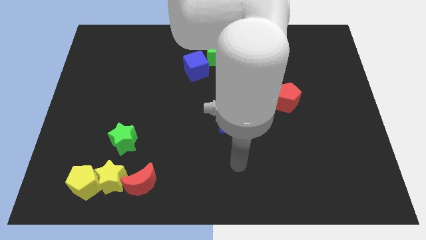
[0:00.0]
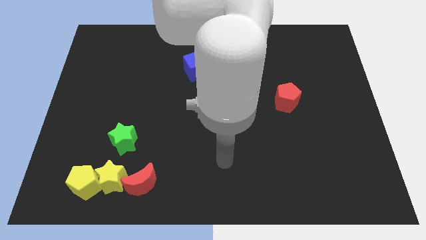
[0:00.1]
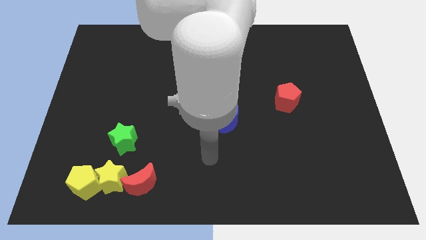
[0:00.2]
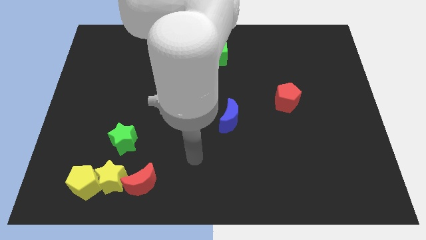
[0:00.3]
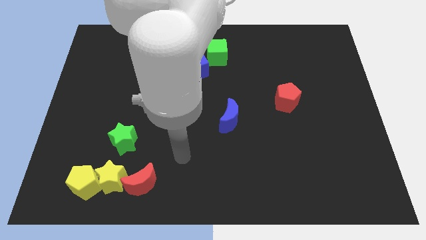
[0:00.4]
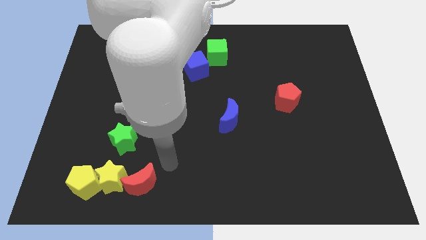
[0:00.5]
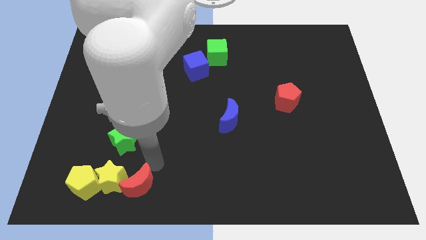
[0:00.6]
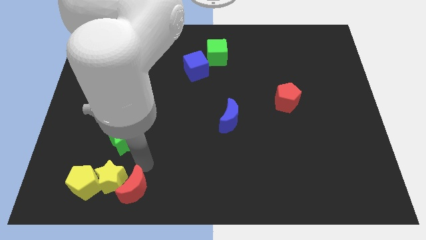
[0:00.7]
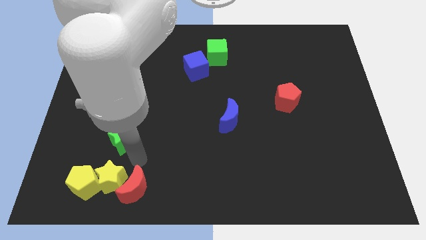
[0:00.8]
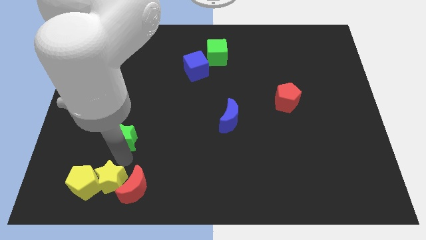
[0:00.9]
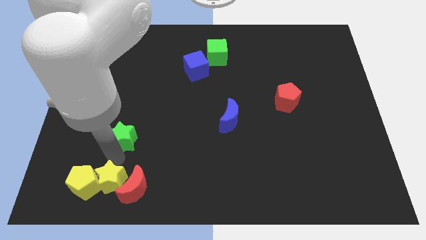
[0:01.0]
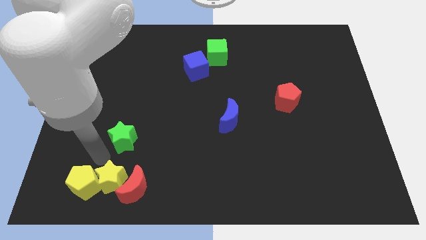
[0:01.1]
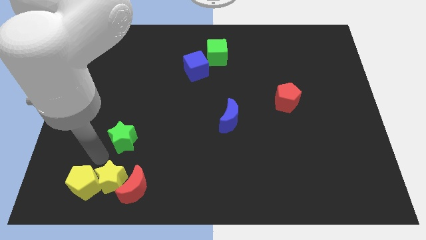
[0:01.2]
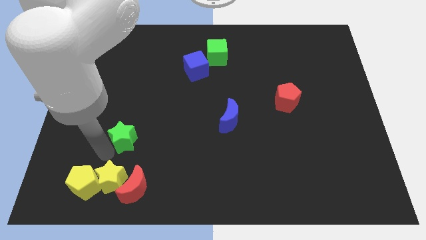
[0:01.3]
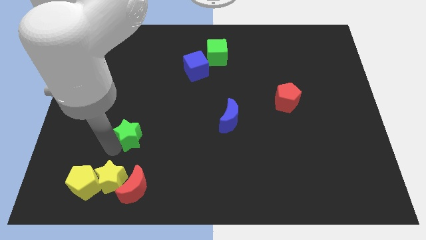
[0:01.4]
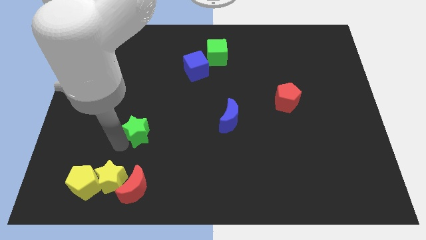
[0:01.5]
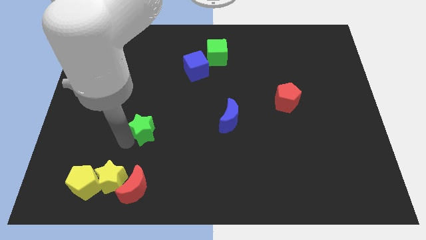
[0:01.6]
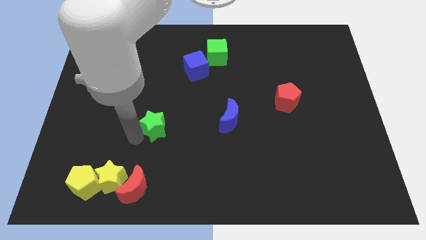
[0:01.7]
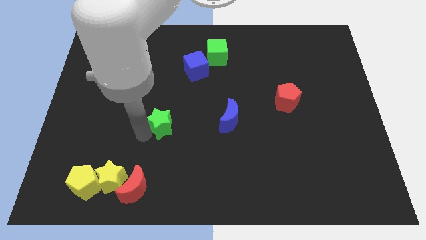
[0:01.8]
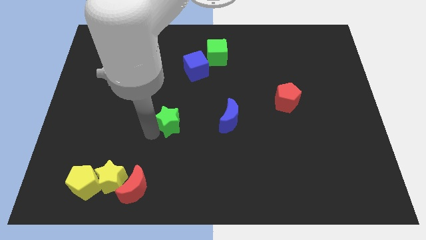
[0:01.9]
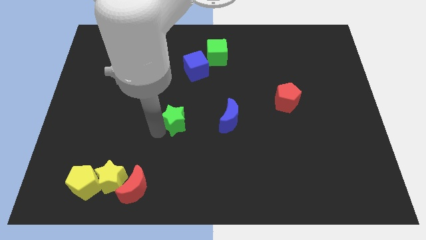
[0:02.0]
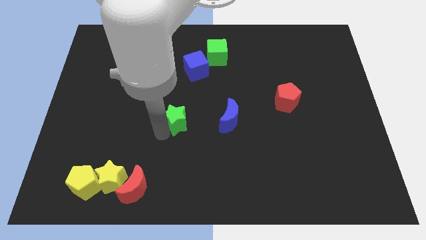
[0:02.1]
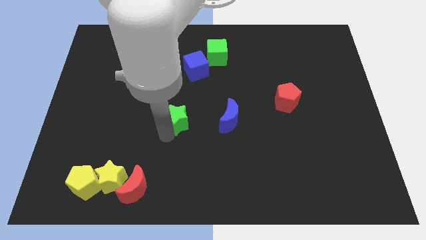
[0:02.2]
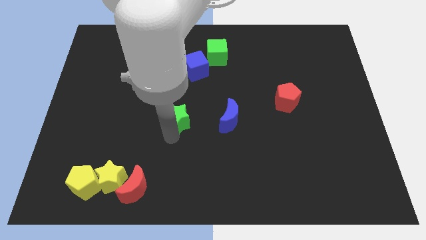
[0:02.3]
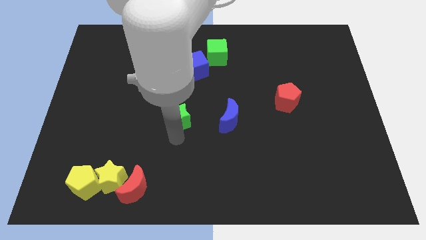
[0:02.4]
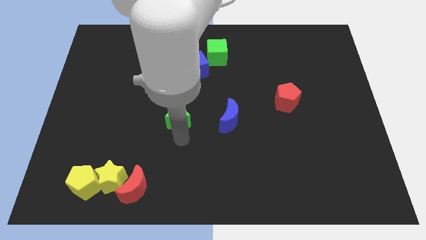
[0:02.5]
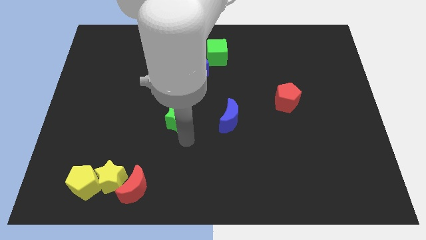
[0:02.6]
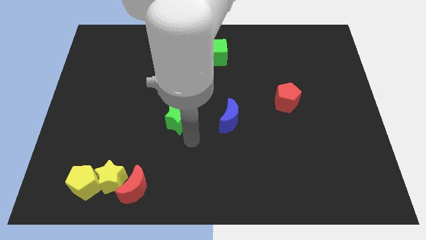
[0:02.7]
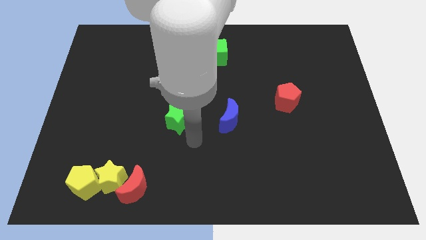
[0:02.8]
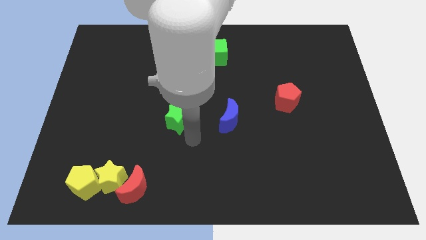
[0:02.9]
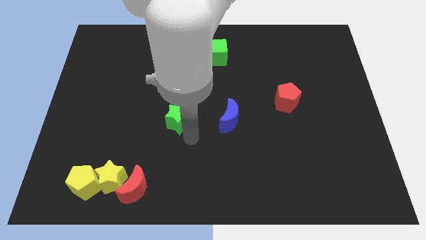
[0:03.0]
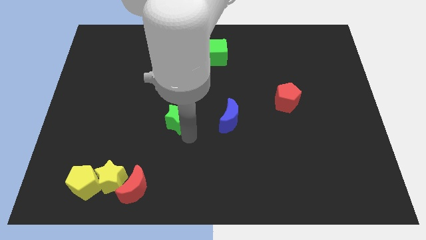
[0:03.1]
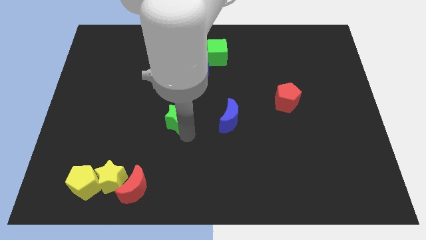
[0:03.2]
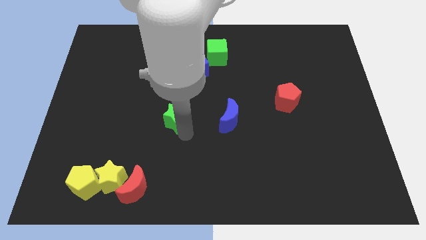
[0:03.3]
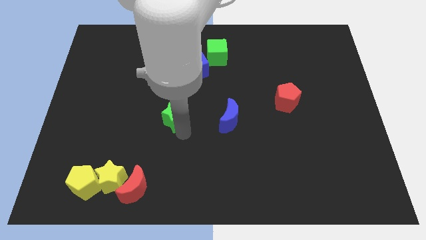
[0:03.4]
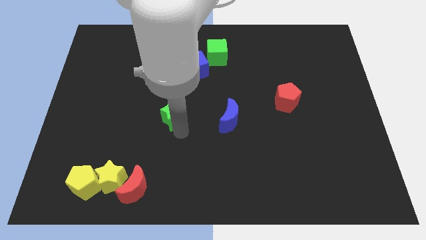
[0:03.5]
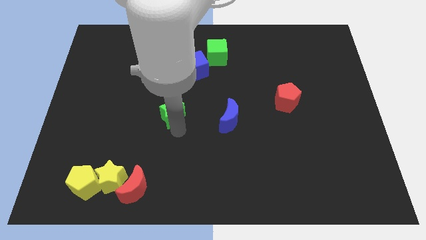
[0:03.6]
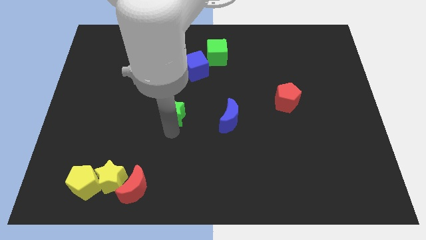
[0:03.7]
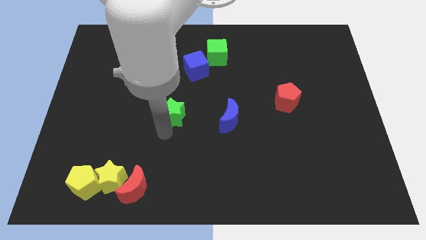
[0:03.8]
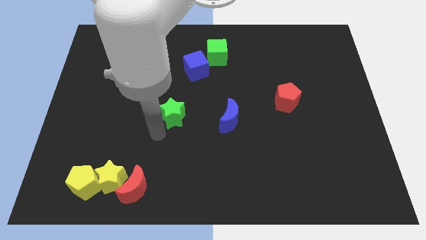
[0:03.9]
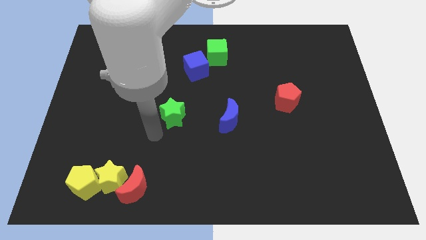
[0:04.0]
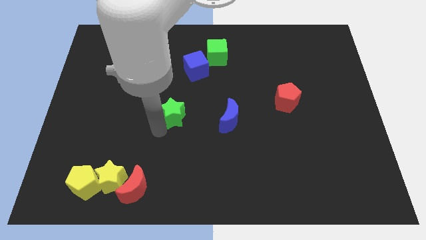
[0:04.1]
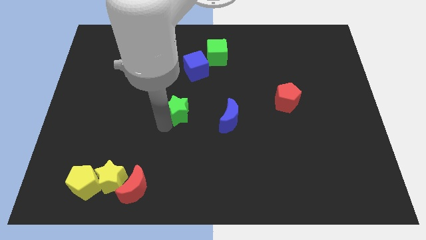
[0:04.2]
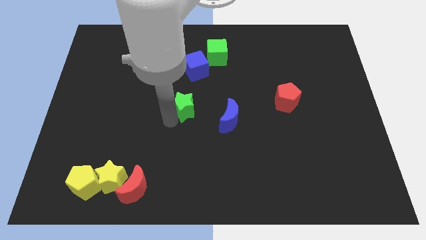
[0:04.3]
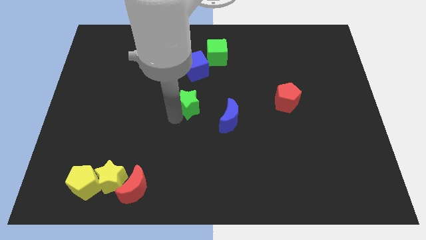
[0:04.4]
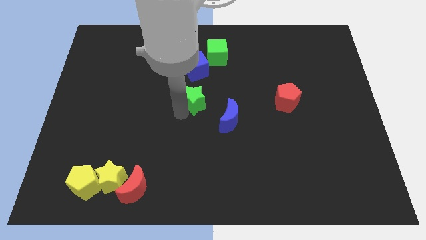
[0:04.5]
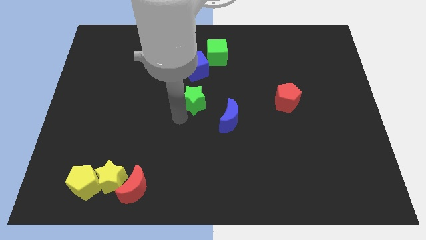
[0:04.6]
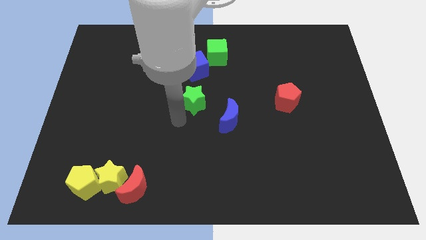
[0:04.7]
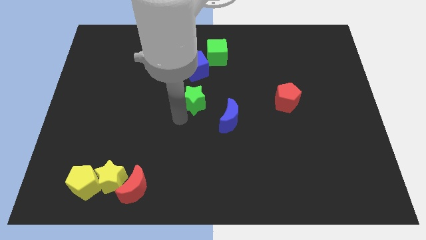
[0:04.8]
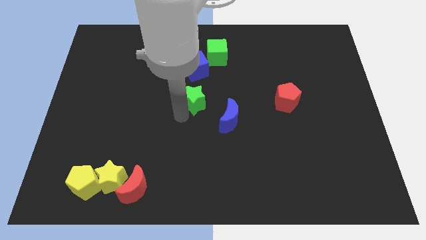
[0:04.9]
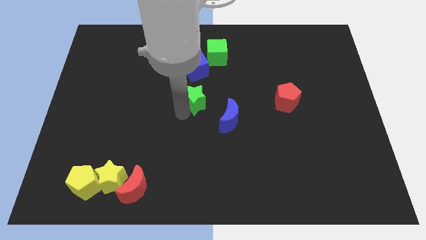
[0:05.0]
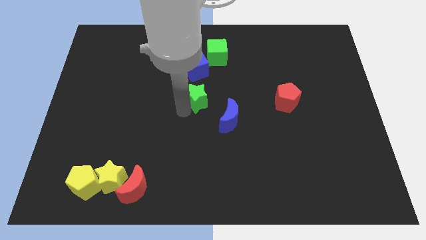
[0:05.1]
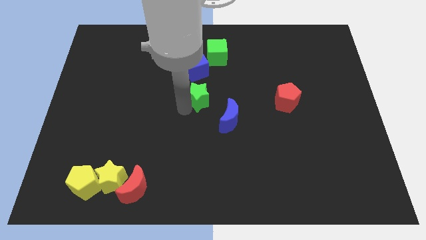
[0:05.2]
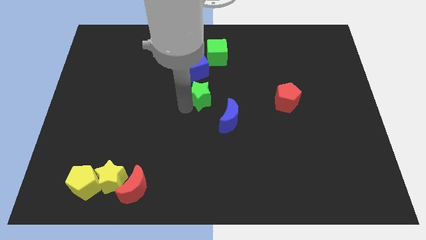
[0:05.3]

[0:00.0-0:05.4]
slide the green star upwards and then right

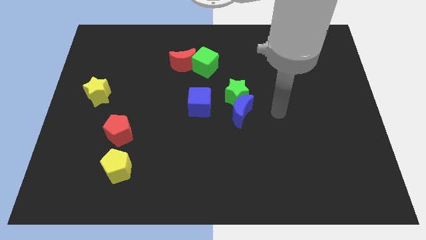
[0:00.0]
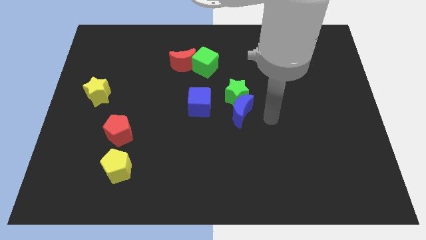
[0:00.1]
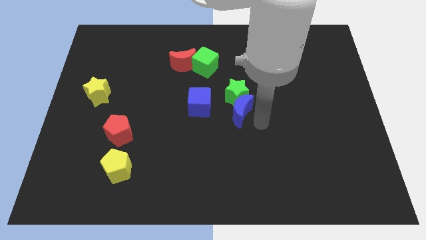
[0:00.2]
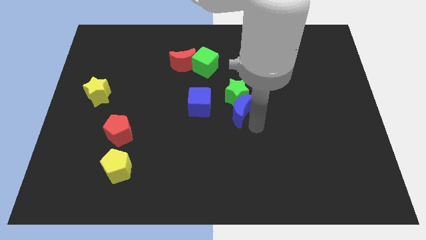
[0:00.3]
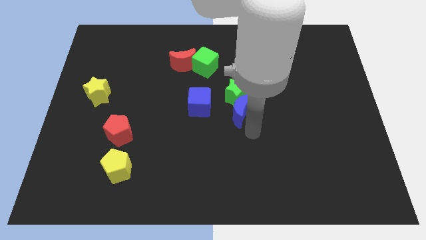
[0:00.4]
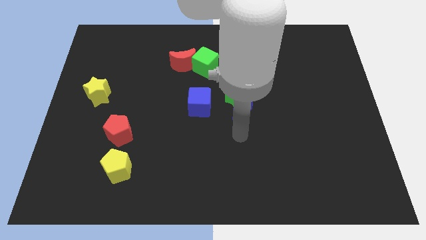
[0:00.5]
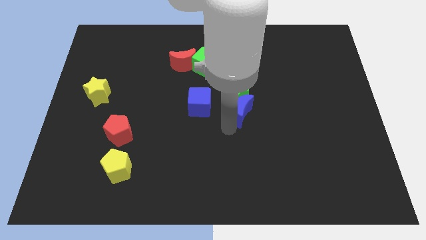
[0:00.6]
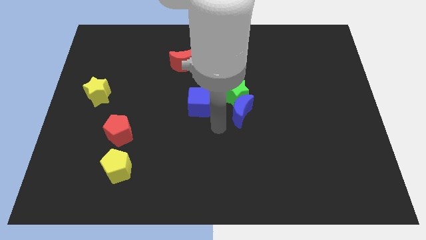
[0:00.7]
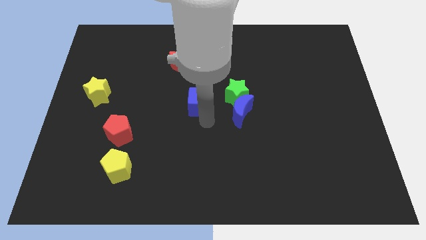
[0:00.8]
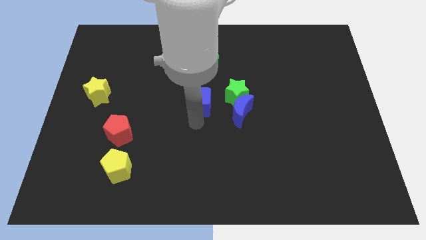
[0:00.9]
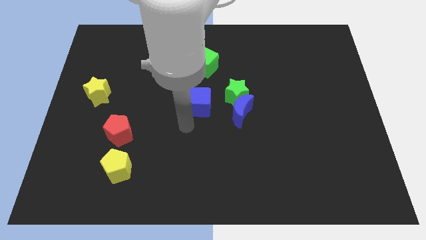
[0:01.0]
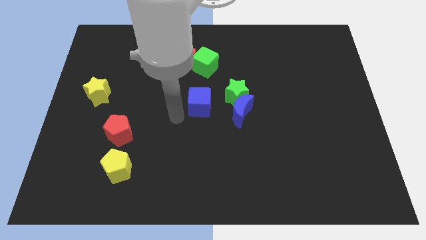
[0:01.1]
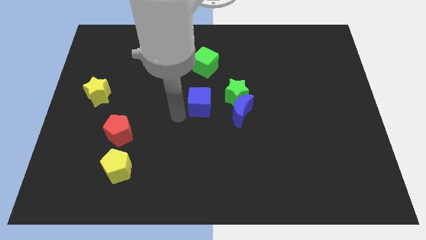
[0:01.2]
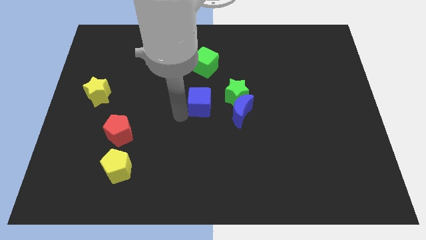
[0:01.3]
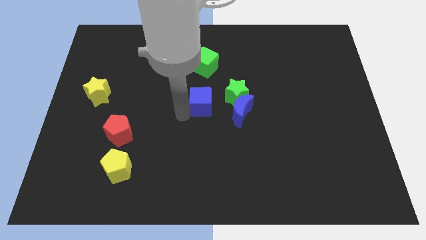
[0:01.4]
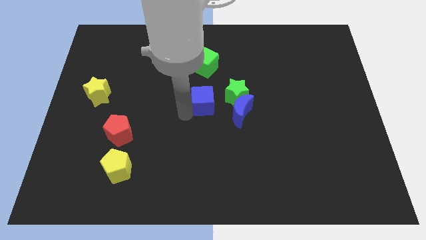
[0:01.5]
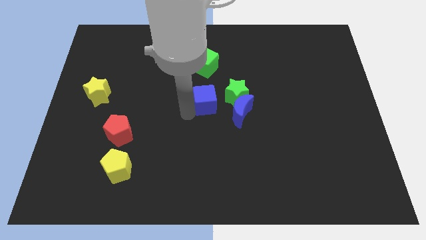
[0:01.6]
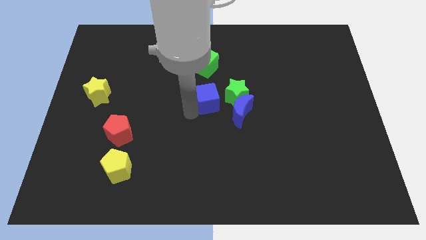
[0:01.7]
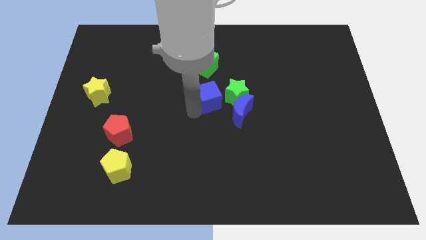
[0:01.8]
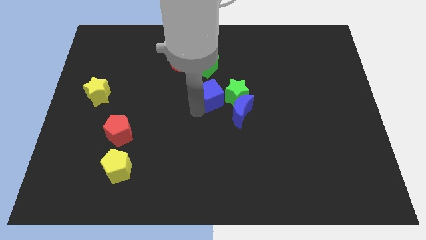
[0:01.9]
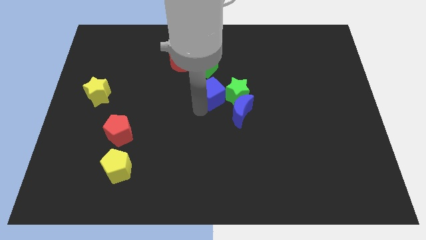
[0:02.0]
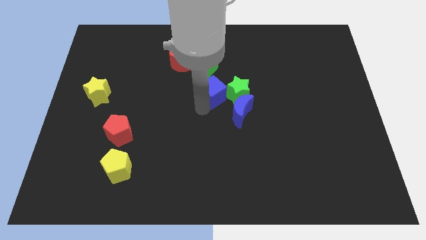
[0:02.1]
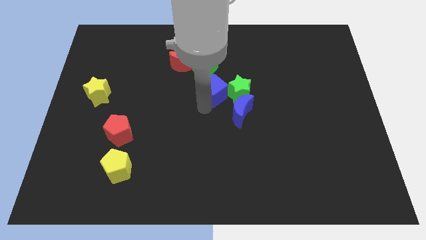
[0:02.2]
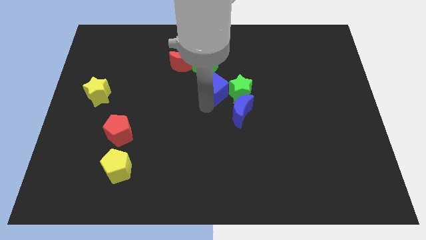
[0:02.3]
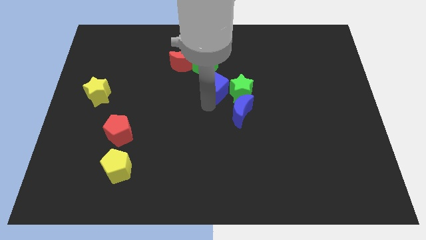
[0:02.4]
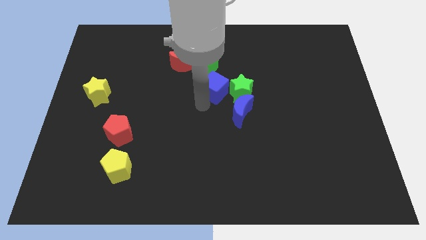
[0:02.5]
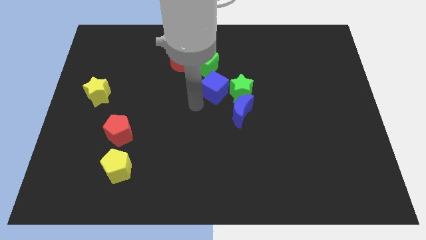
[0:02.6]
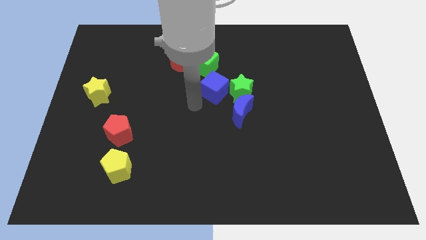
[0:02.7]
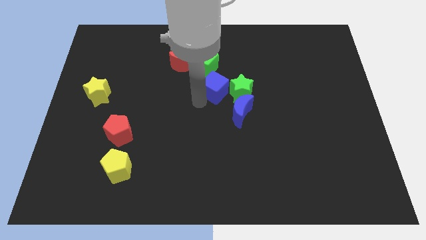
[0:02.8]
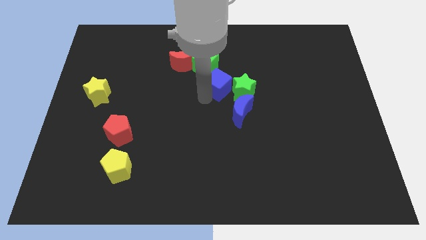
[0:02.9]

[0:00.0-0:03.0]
slide the blue cube somewhat up and to the right
